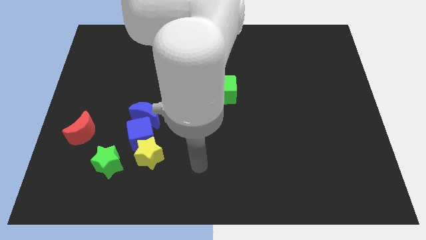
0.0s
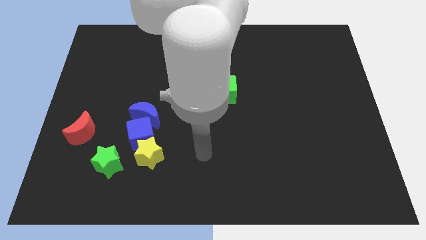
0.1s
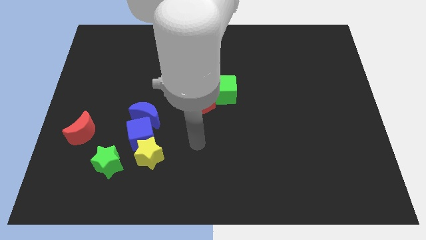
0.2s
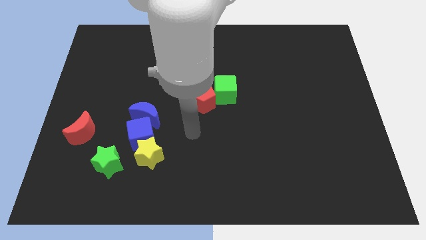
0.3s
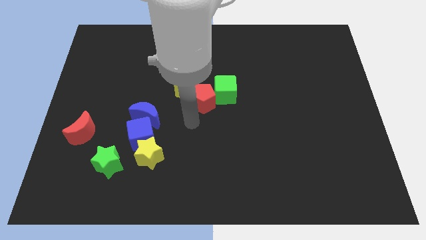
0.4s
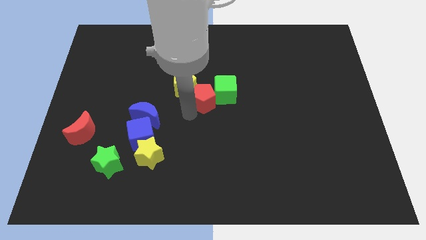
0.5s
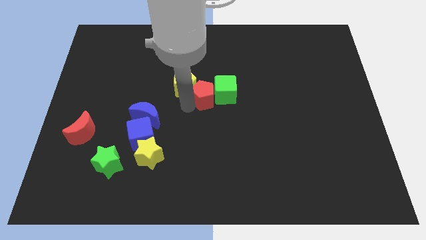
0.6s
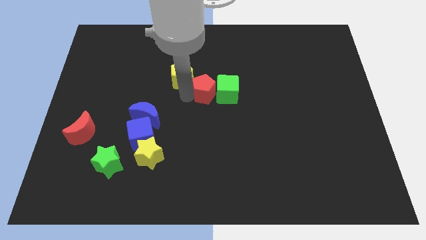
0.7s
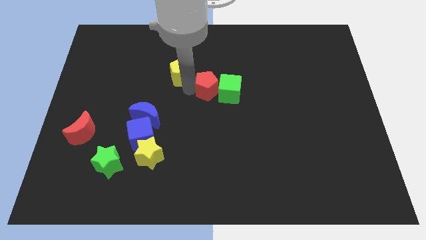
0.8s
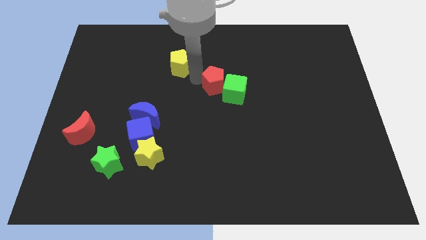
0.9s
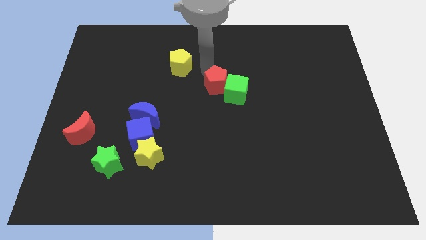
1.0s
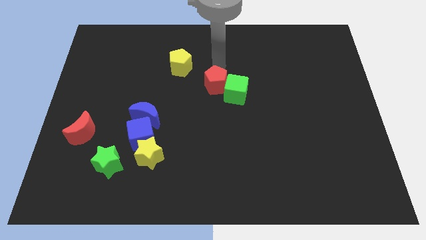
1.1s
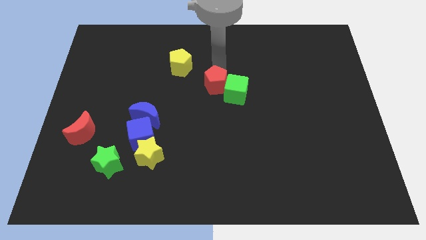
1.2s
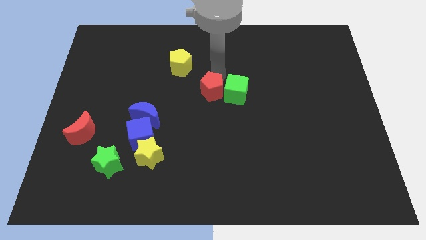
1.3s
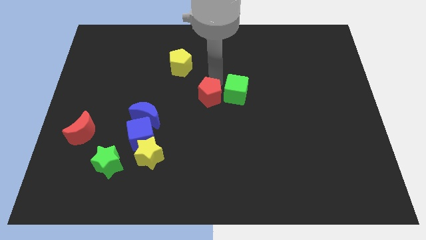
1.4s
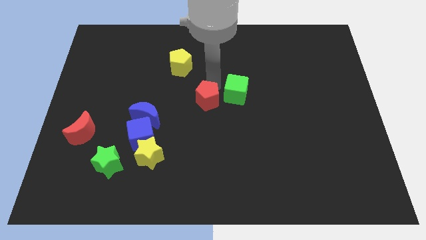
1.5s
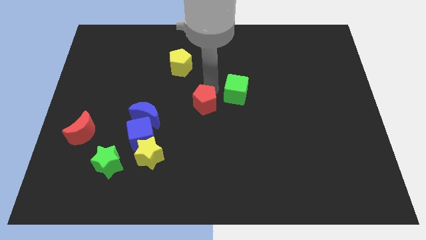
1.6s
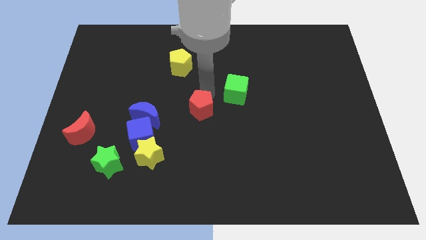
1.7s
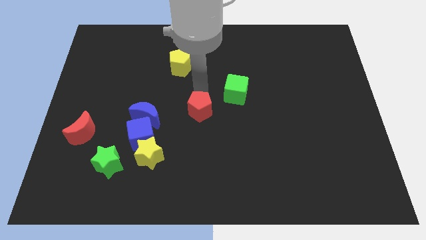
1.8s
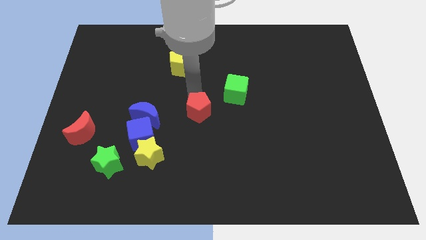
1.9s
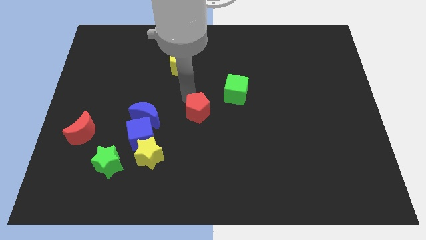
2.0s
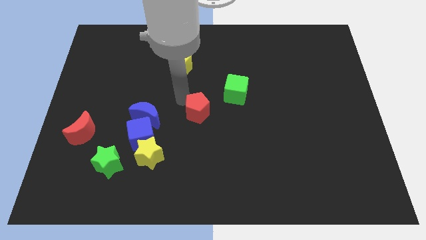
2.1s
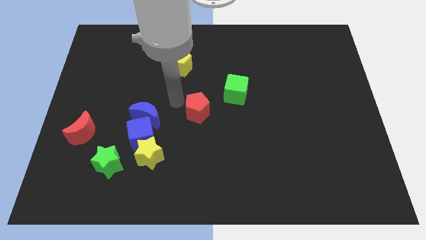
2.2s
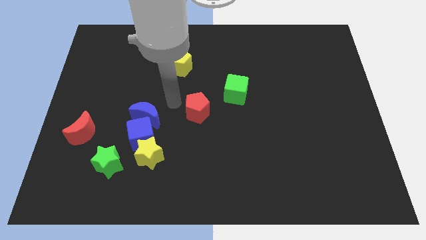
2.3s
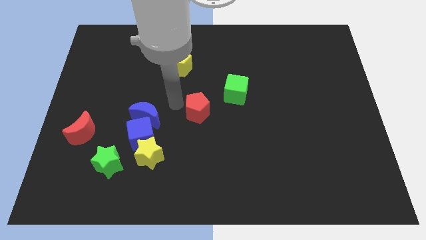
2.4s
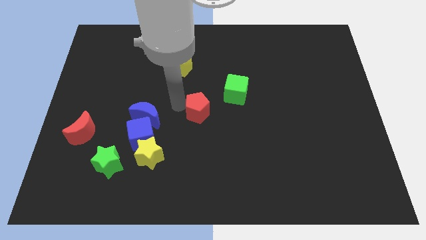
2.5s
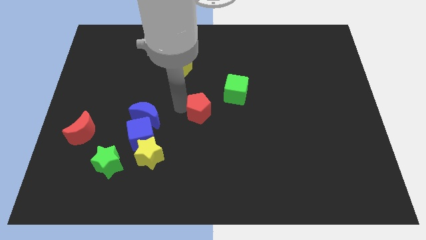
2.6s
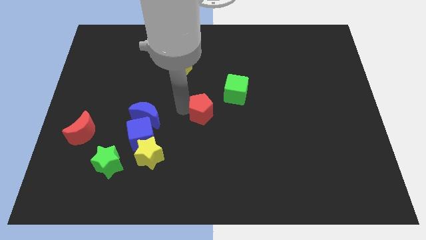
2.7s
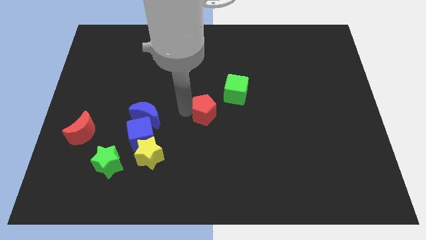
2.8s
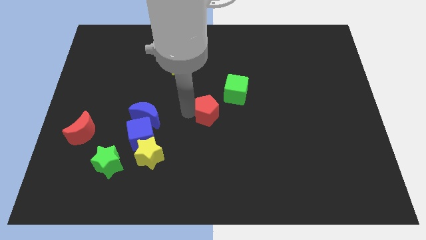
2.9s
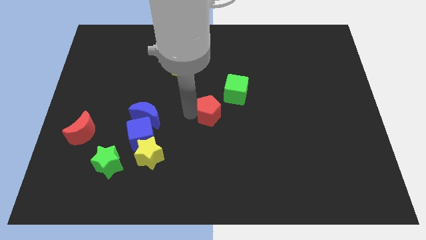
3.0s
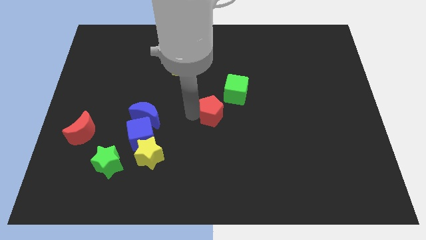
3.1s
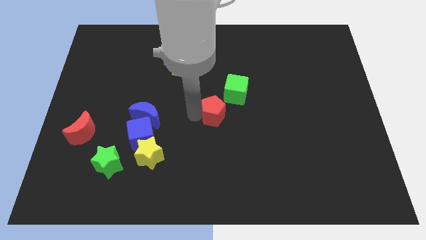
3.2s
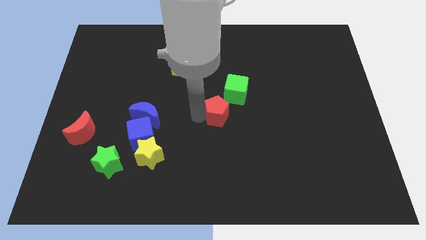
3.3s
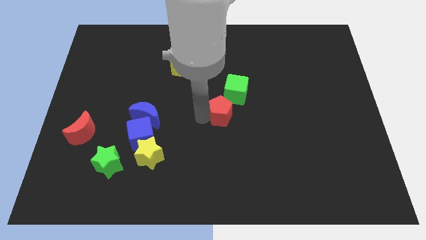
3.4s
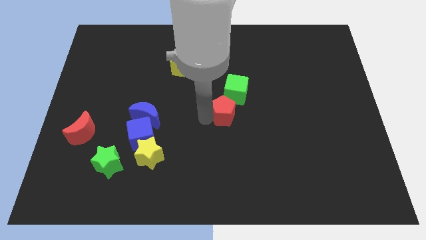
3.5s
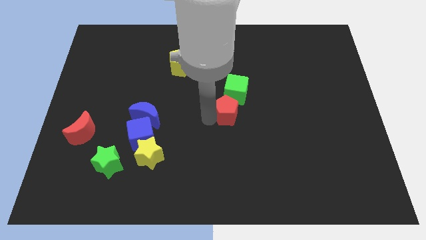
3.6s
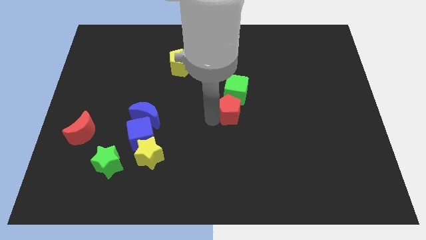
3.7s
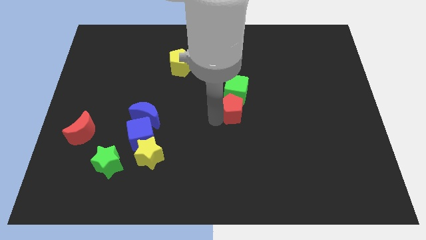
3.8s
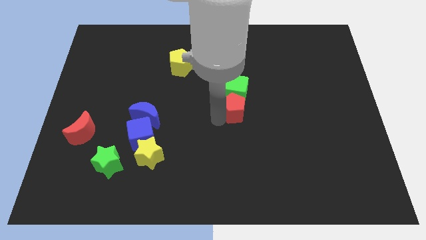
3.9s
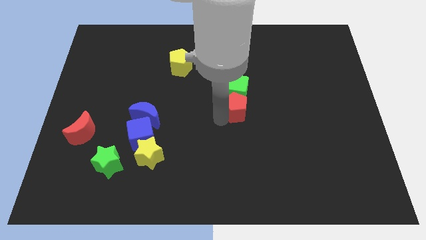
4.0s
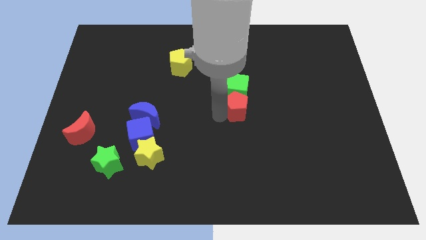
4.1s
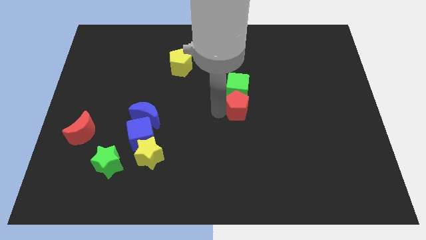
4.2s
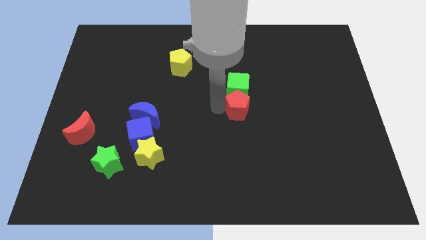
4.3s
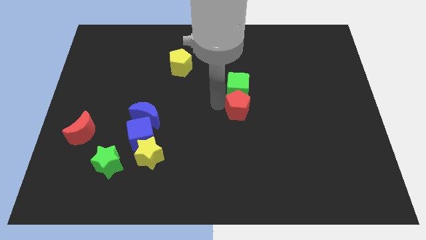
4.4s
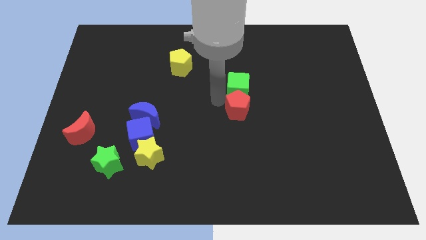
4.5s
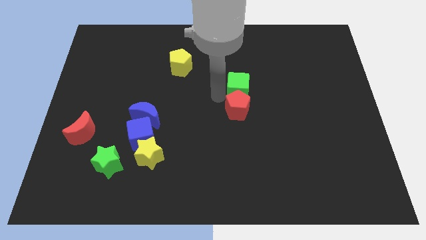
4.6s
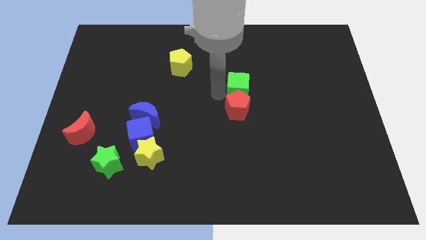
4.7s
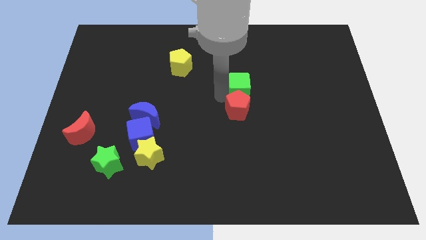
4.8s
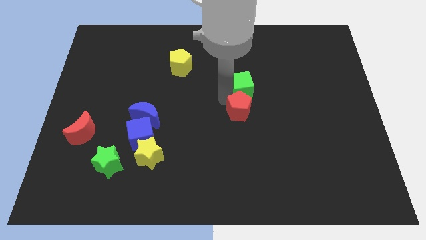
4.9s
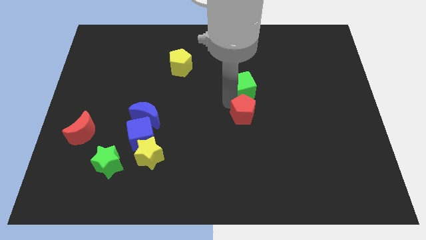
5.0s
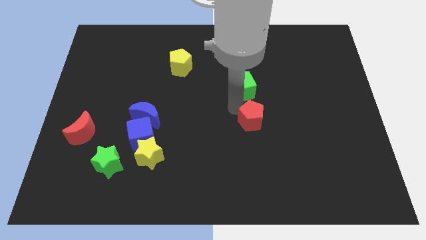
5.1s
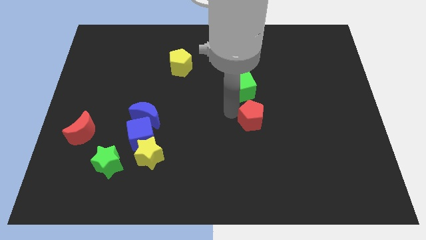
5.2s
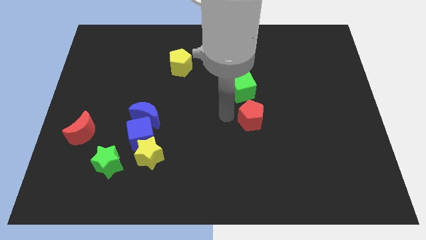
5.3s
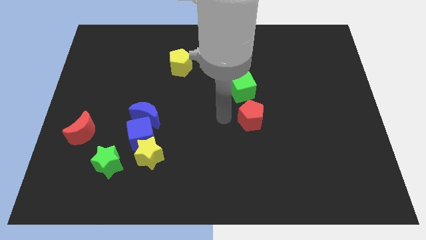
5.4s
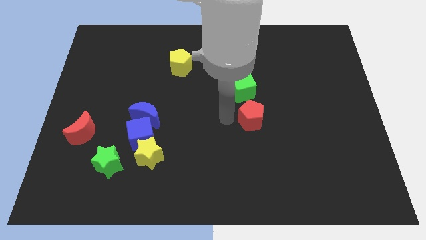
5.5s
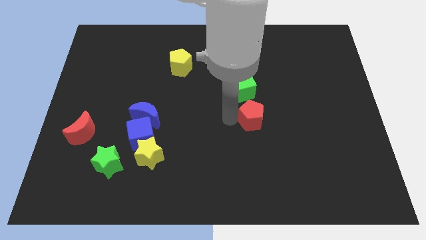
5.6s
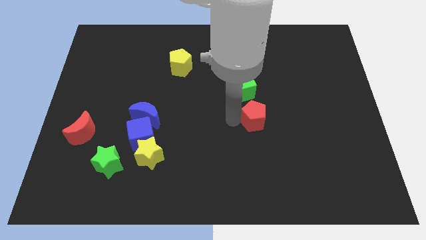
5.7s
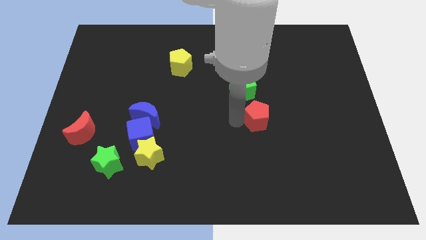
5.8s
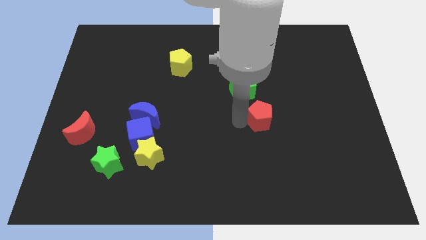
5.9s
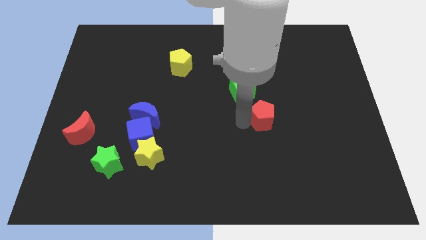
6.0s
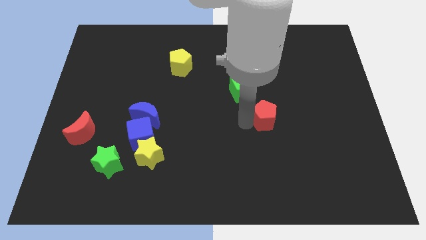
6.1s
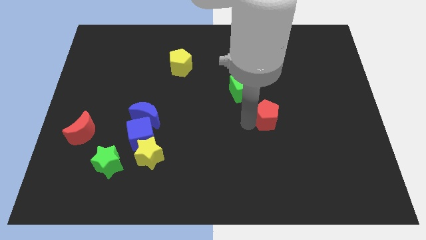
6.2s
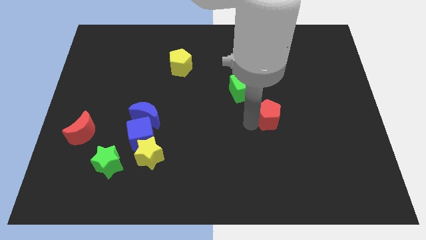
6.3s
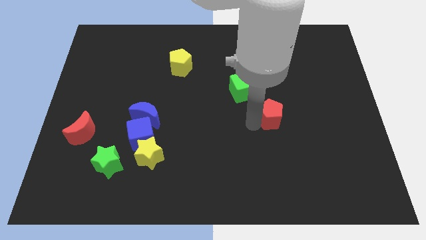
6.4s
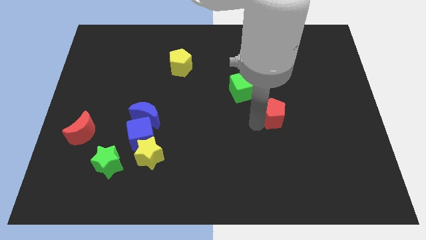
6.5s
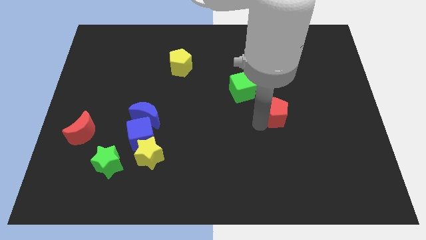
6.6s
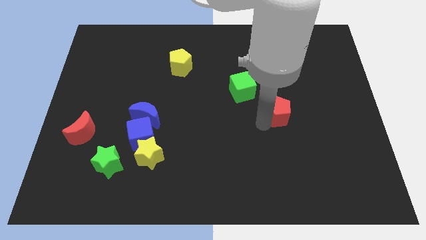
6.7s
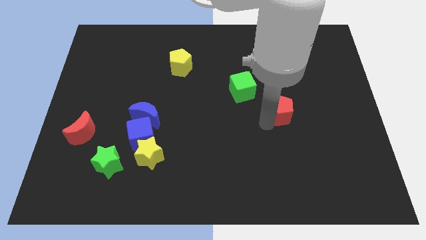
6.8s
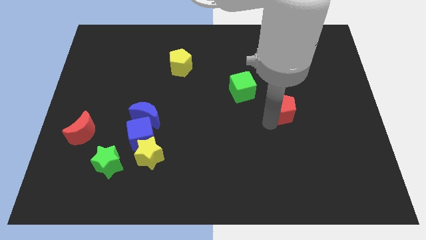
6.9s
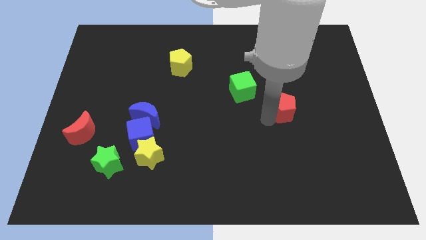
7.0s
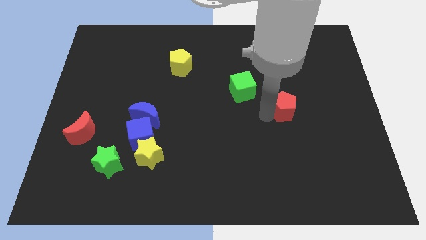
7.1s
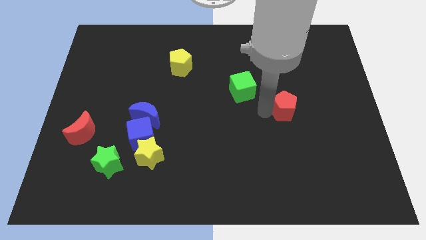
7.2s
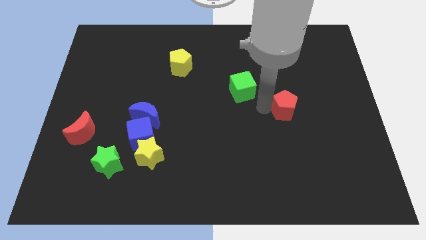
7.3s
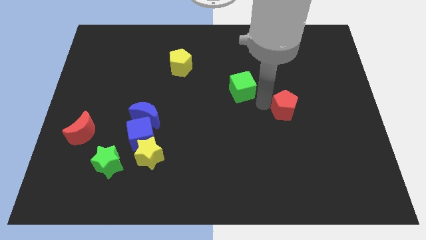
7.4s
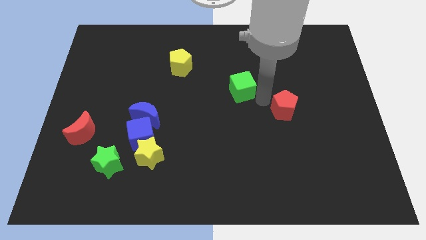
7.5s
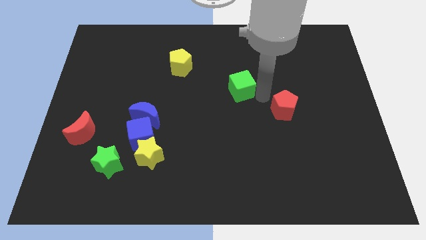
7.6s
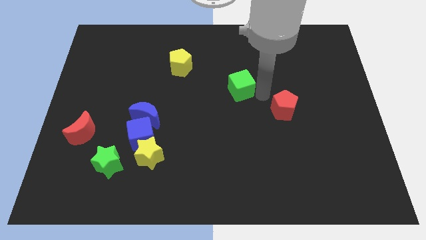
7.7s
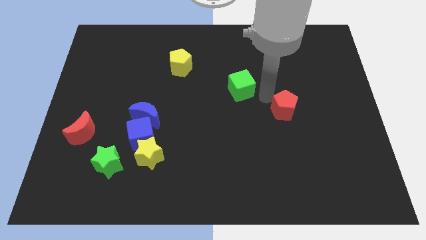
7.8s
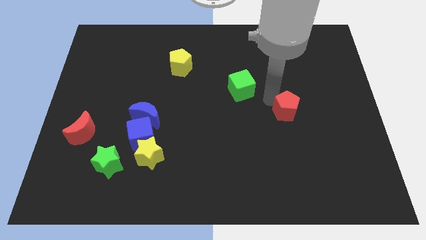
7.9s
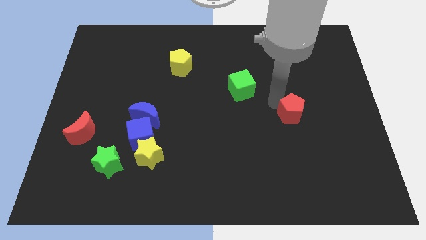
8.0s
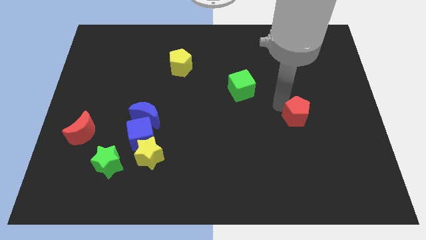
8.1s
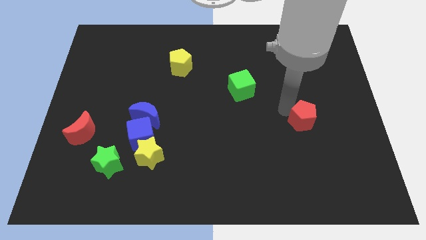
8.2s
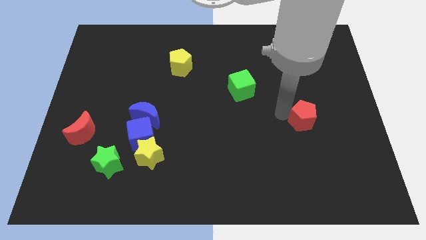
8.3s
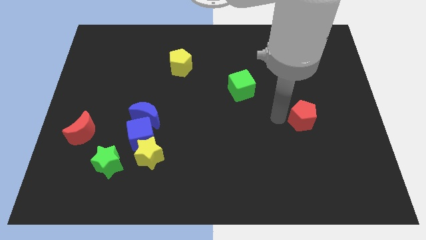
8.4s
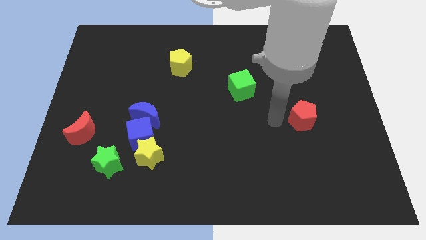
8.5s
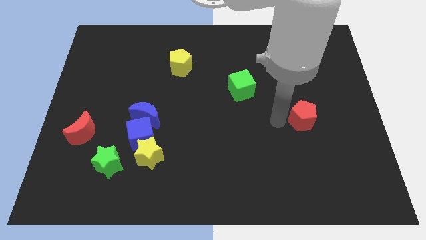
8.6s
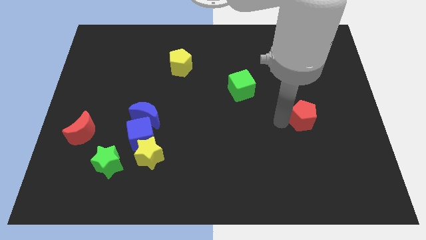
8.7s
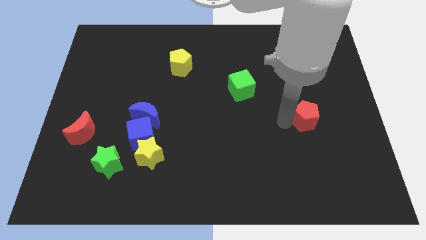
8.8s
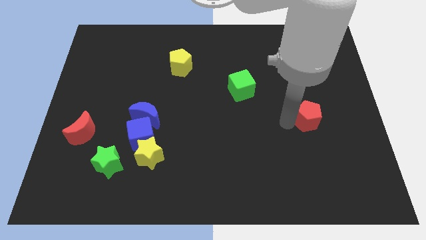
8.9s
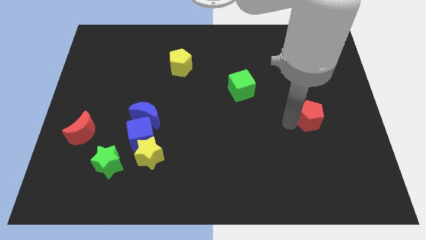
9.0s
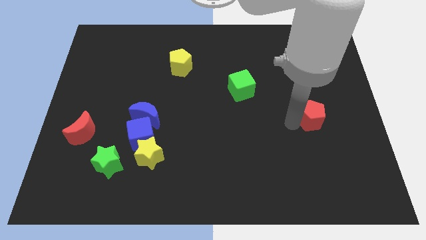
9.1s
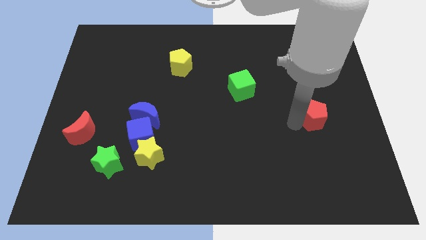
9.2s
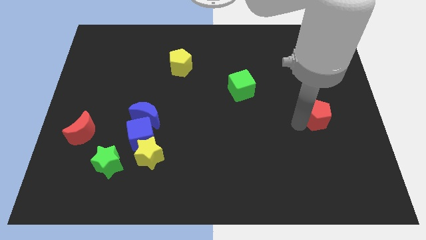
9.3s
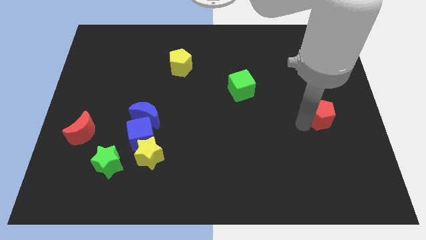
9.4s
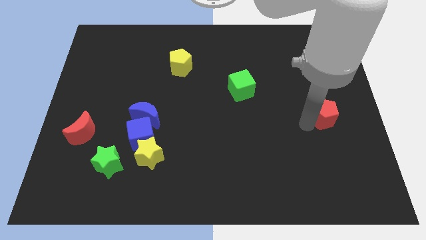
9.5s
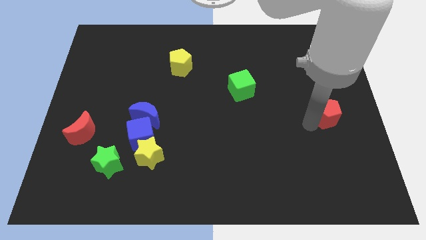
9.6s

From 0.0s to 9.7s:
push the red pentagon to the right side
